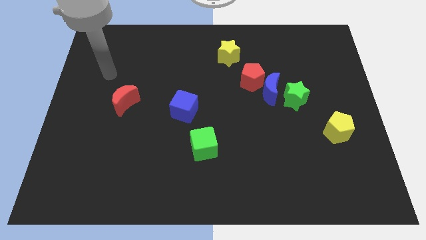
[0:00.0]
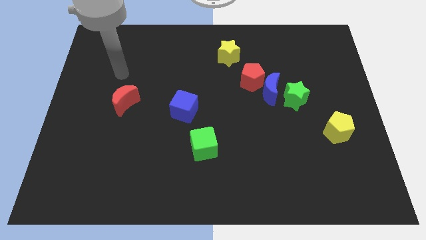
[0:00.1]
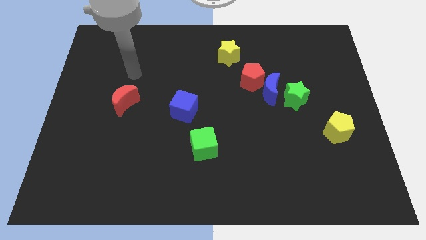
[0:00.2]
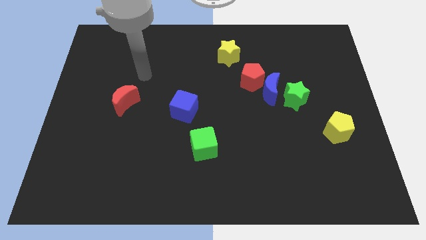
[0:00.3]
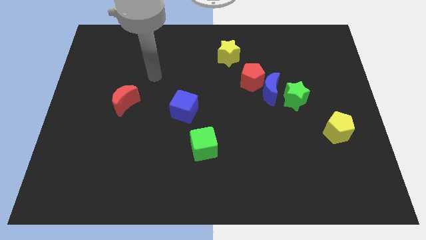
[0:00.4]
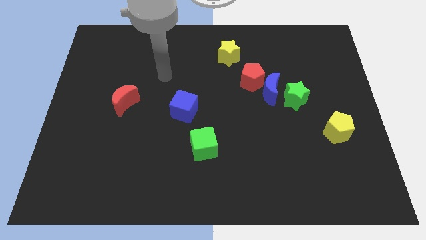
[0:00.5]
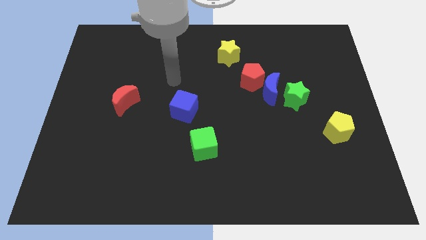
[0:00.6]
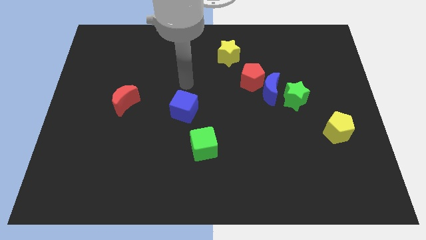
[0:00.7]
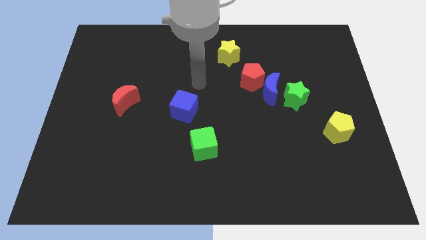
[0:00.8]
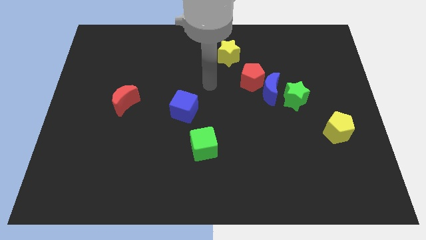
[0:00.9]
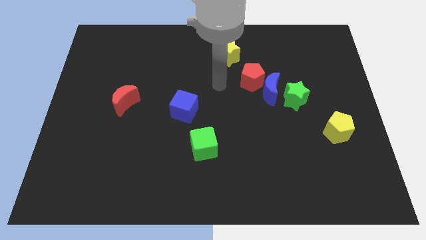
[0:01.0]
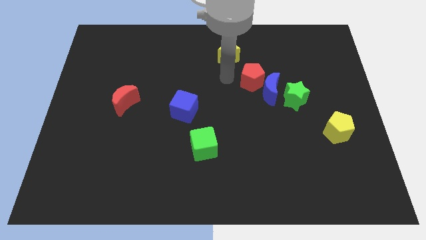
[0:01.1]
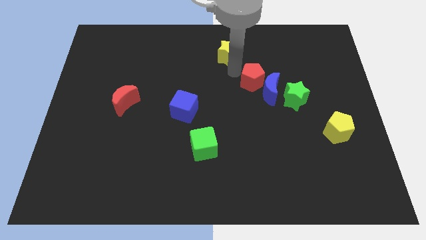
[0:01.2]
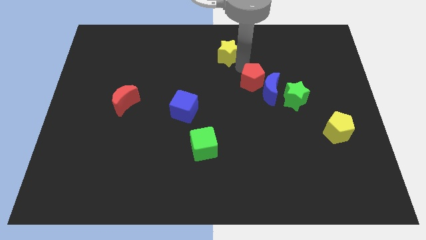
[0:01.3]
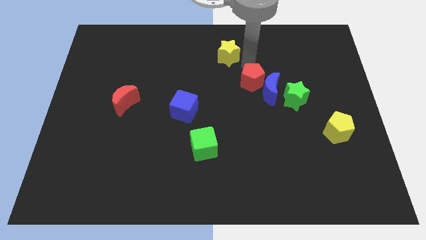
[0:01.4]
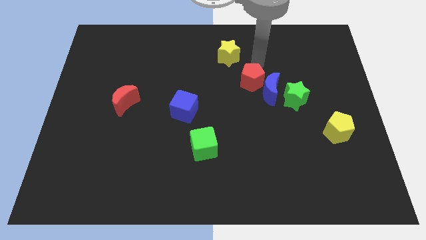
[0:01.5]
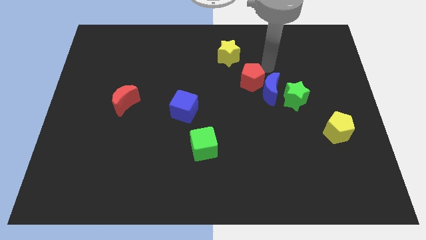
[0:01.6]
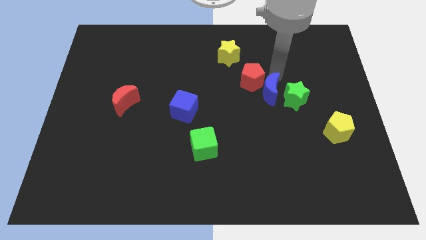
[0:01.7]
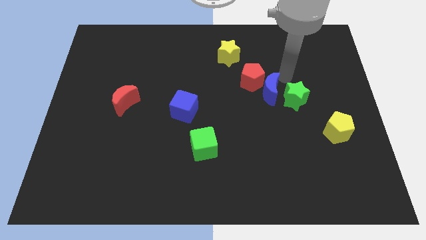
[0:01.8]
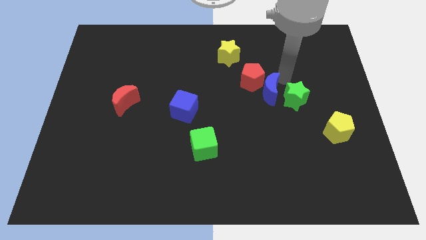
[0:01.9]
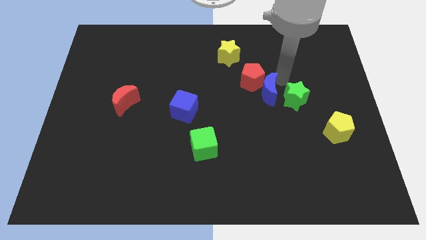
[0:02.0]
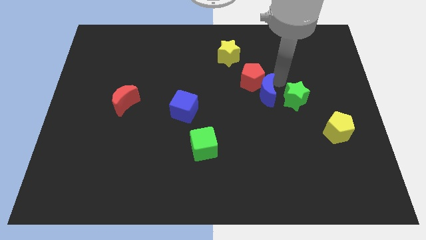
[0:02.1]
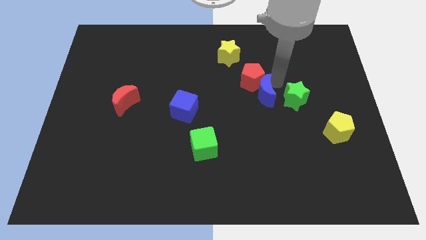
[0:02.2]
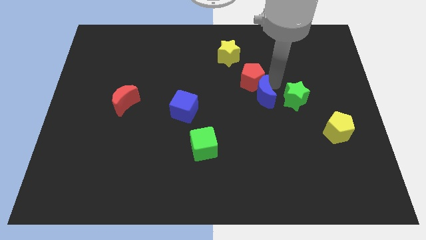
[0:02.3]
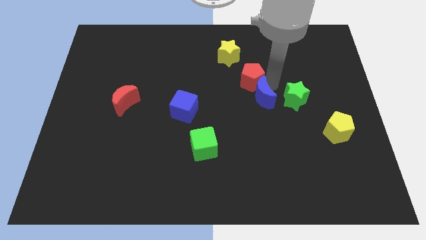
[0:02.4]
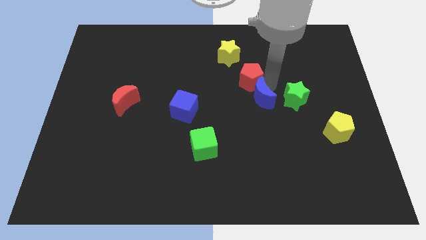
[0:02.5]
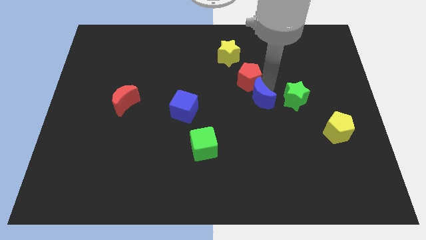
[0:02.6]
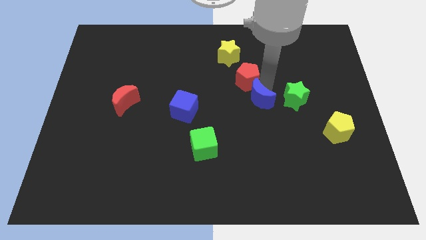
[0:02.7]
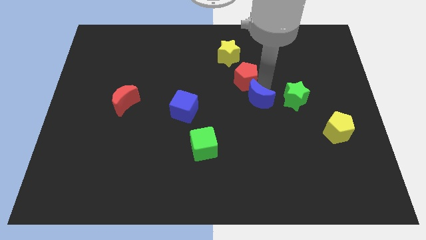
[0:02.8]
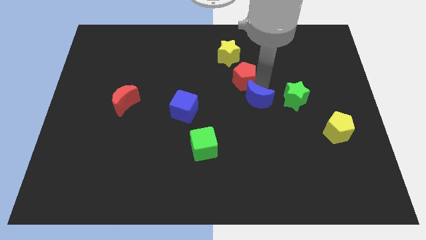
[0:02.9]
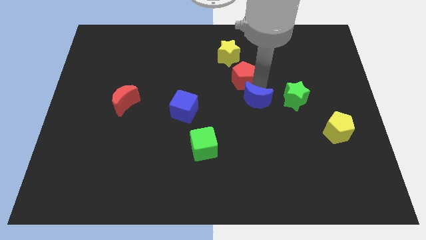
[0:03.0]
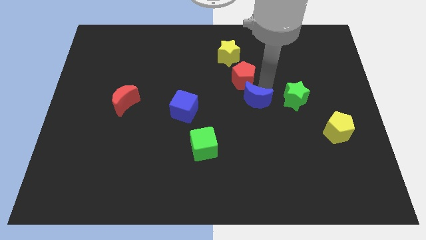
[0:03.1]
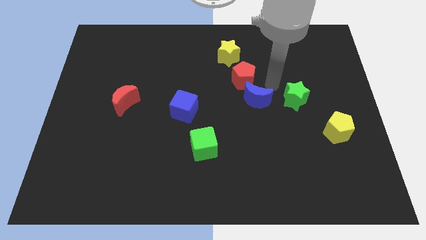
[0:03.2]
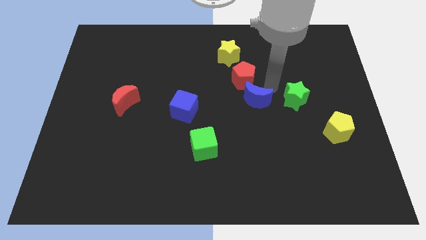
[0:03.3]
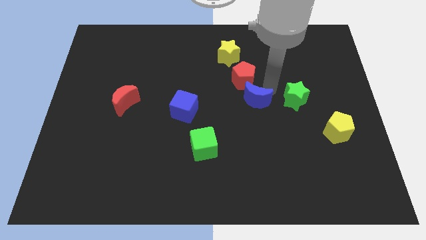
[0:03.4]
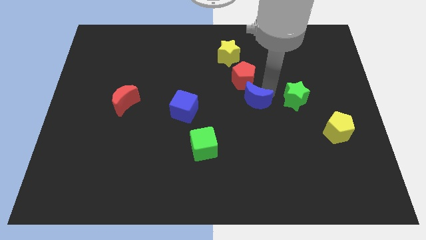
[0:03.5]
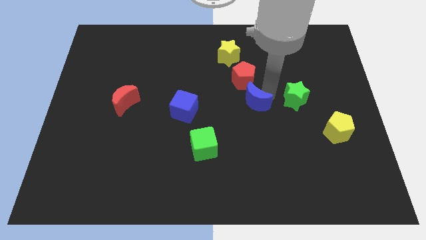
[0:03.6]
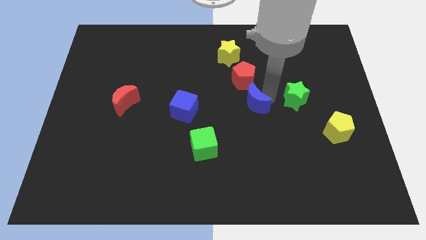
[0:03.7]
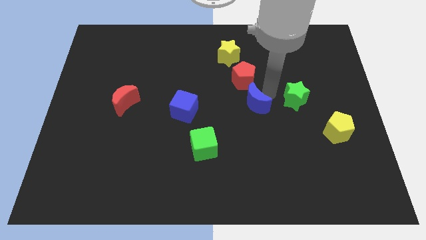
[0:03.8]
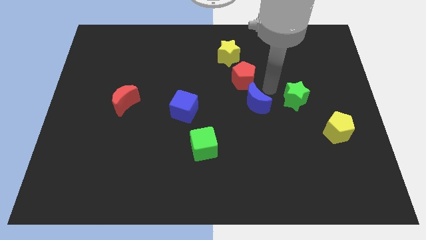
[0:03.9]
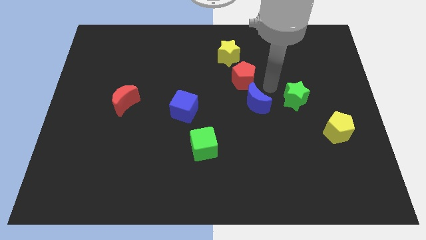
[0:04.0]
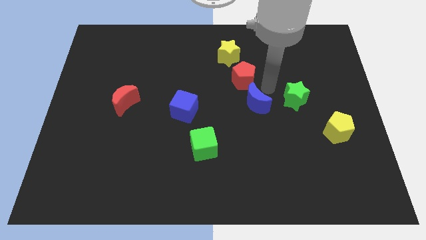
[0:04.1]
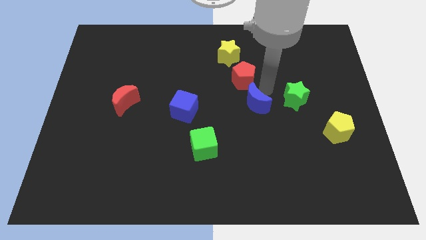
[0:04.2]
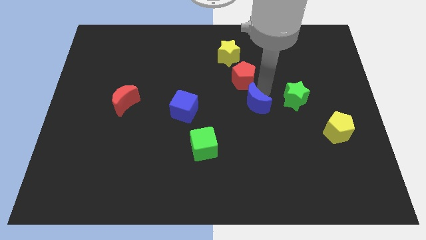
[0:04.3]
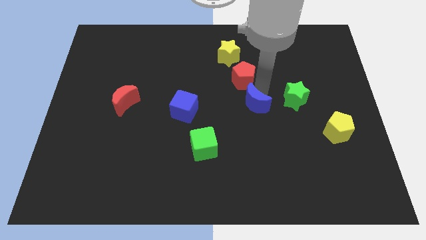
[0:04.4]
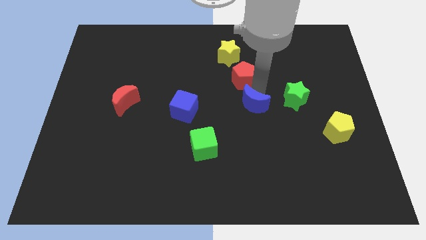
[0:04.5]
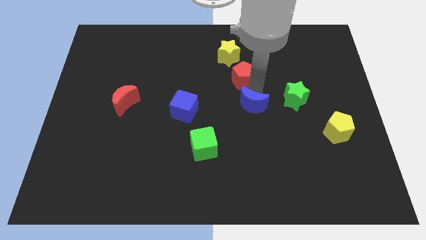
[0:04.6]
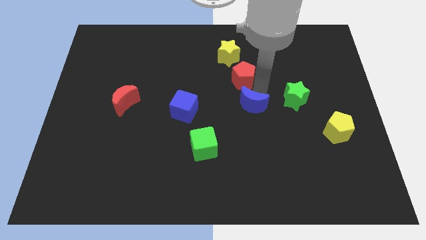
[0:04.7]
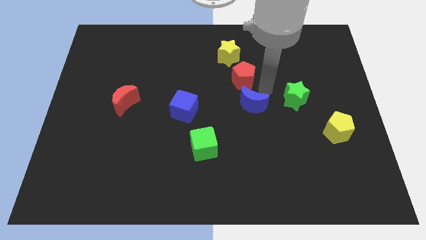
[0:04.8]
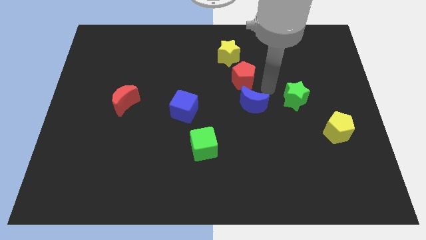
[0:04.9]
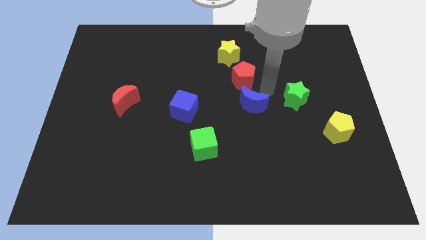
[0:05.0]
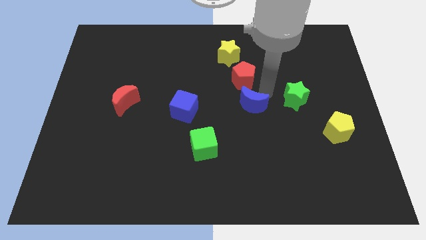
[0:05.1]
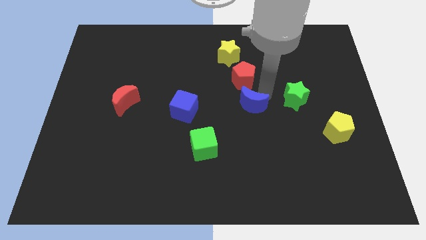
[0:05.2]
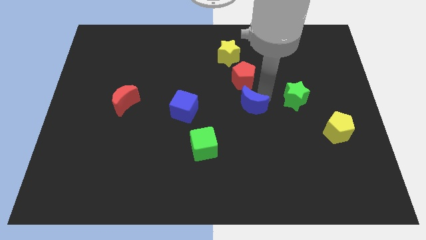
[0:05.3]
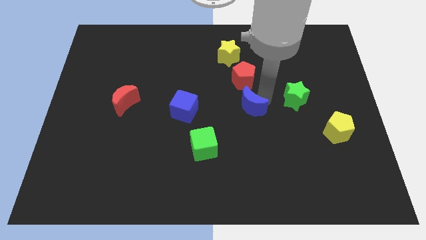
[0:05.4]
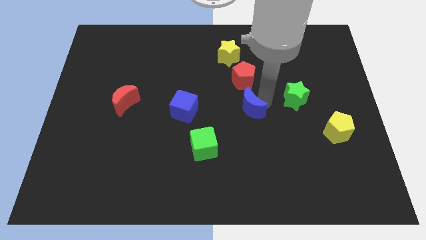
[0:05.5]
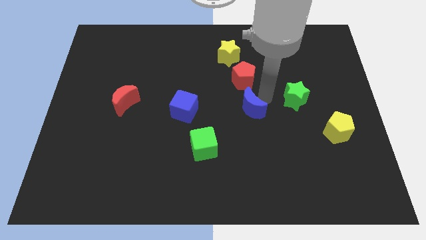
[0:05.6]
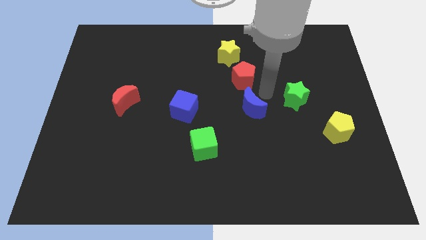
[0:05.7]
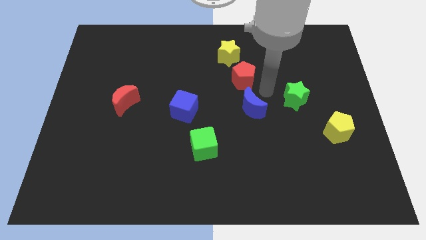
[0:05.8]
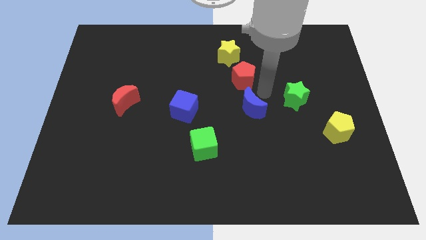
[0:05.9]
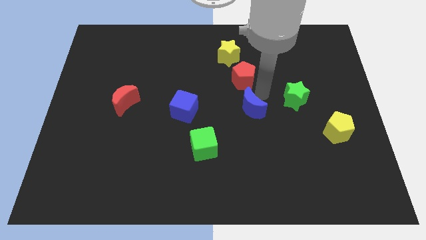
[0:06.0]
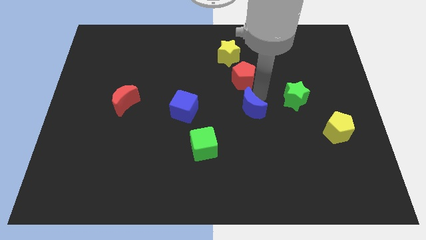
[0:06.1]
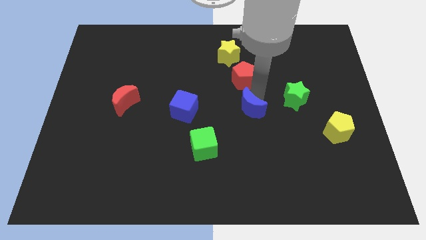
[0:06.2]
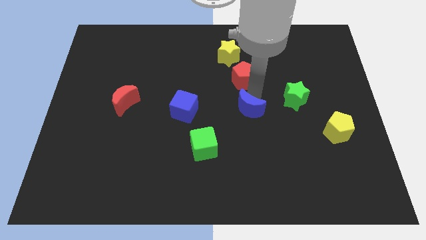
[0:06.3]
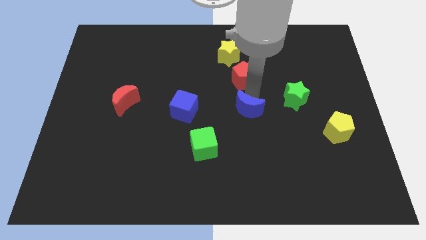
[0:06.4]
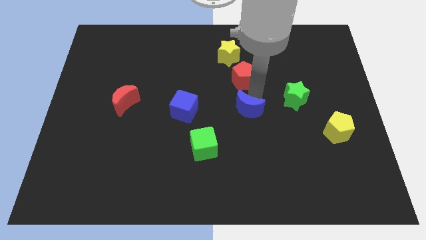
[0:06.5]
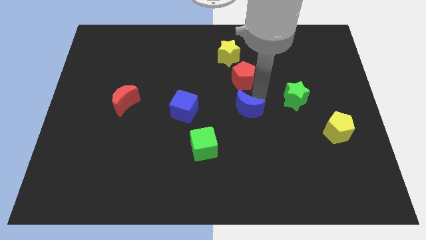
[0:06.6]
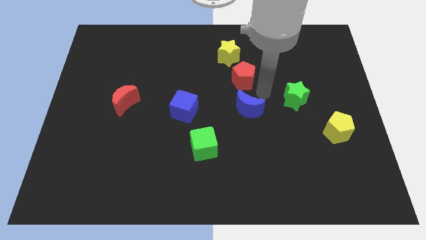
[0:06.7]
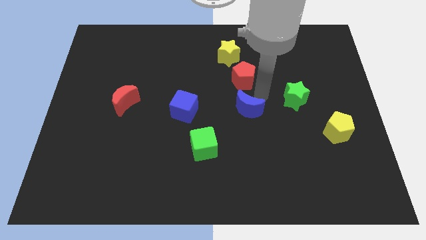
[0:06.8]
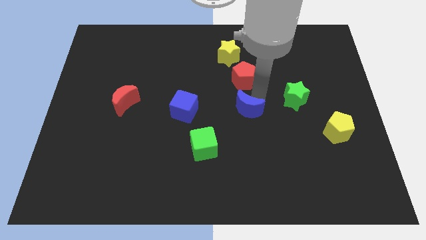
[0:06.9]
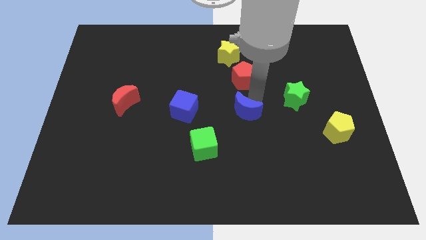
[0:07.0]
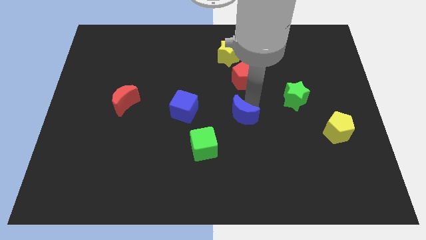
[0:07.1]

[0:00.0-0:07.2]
pull the blue moon apart from the red pentagon and green star

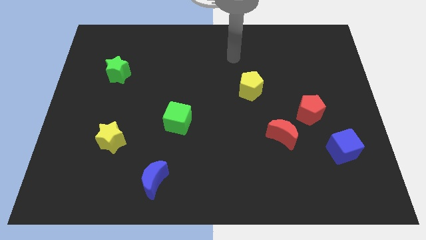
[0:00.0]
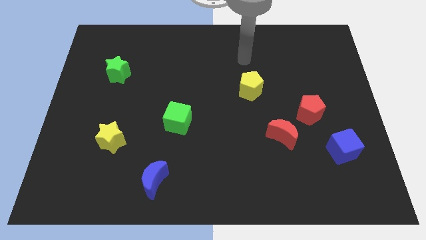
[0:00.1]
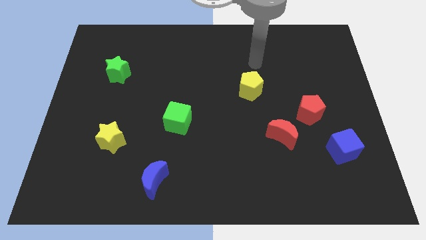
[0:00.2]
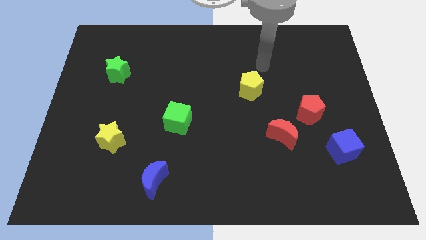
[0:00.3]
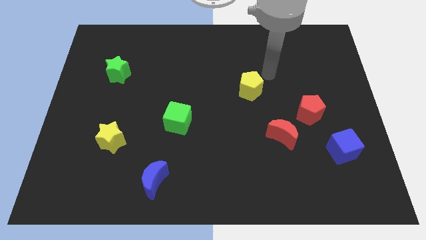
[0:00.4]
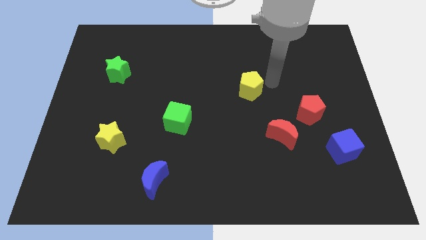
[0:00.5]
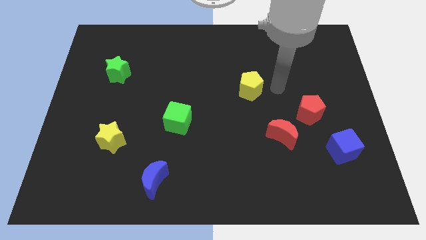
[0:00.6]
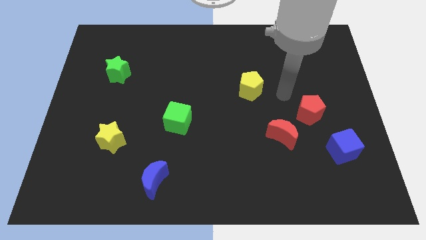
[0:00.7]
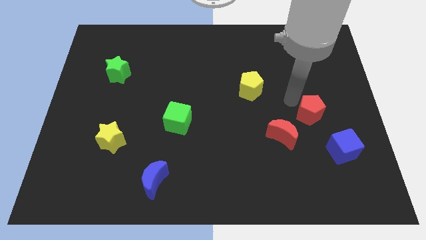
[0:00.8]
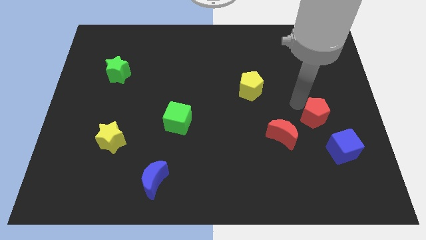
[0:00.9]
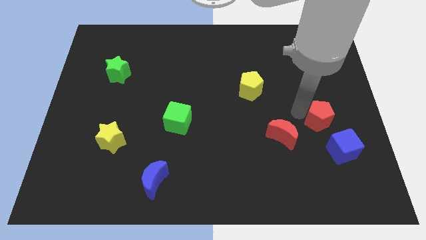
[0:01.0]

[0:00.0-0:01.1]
separate the red moon from the red pentagon

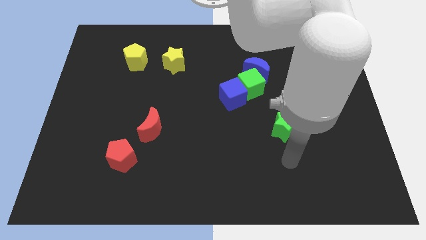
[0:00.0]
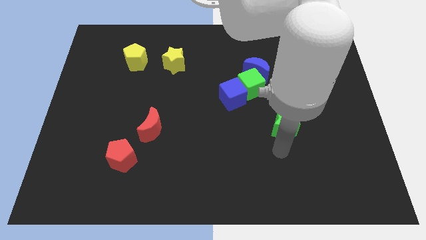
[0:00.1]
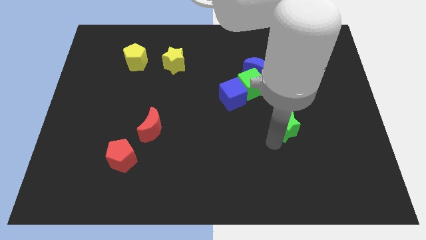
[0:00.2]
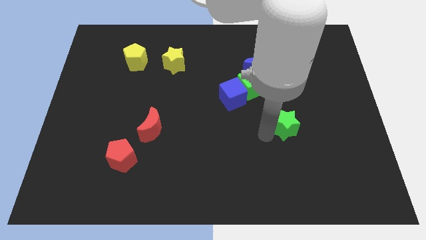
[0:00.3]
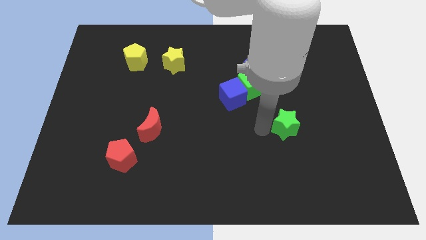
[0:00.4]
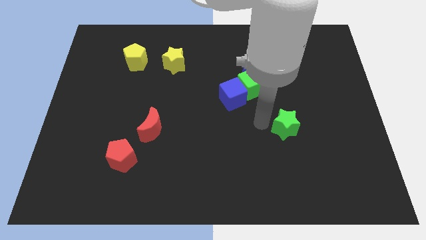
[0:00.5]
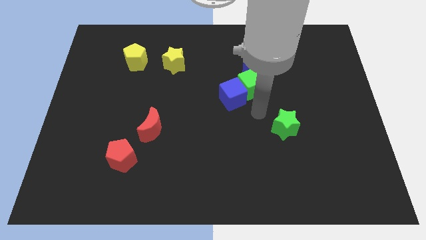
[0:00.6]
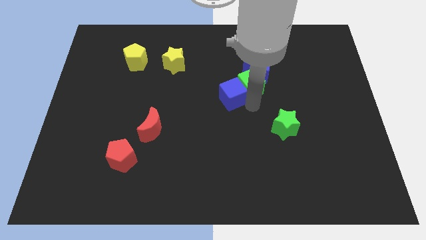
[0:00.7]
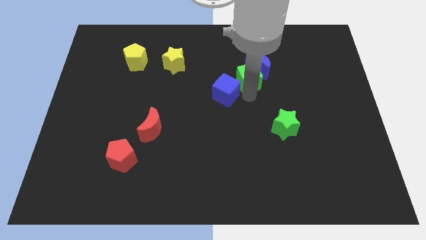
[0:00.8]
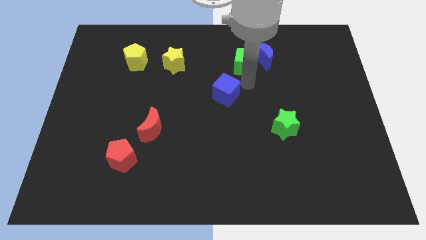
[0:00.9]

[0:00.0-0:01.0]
pull the blue cube apart from the green cube

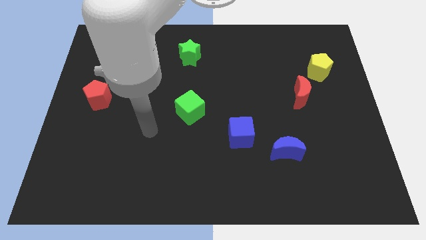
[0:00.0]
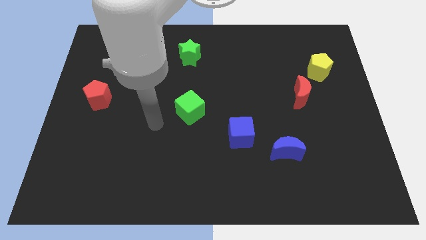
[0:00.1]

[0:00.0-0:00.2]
pull the red moon apart from the yellow pentagon
